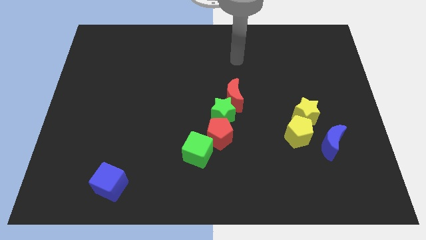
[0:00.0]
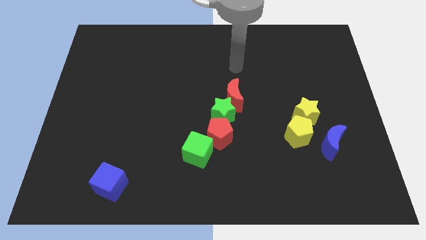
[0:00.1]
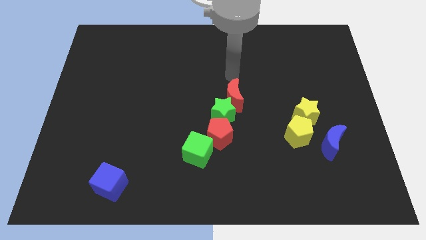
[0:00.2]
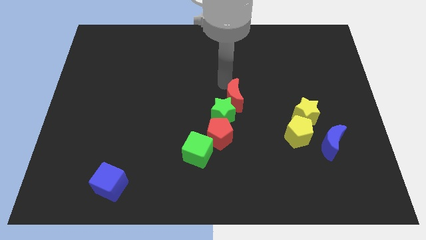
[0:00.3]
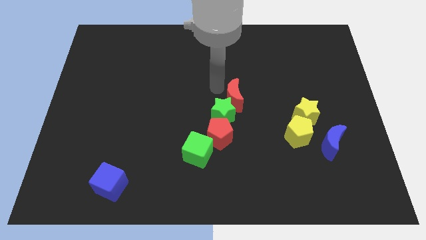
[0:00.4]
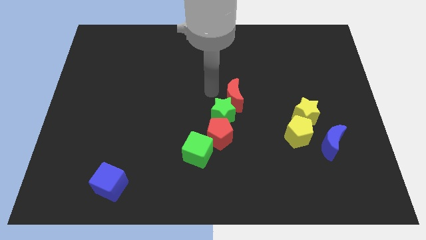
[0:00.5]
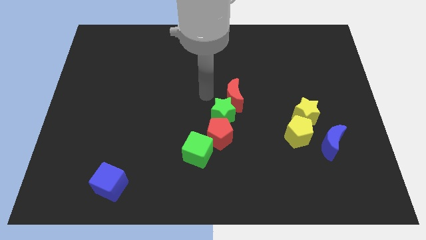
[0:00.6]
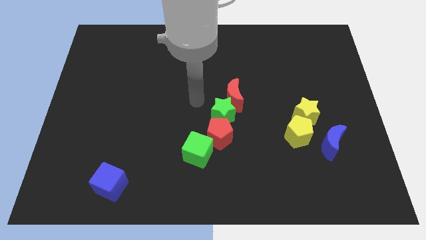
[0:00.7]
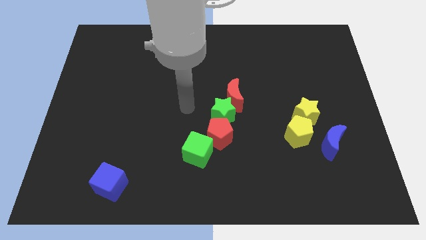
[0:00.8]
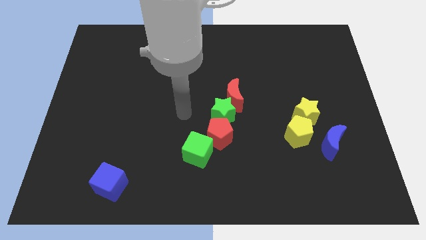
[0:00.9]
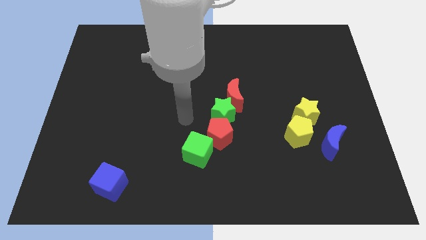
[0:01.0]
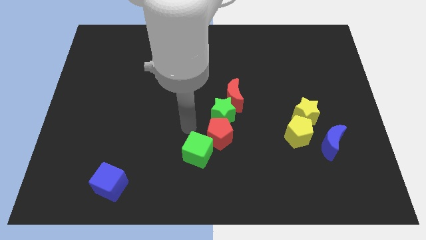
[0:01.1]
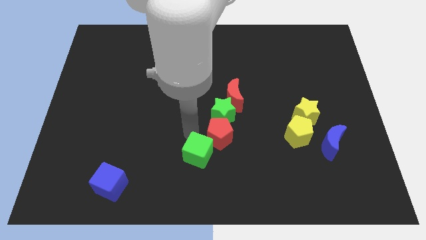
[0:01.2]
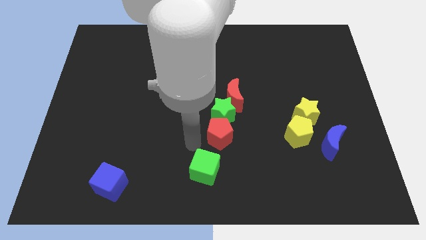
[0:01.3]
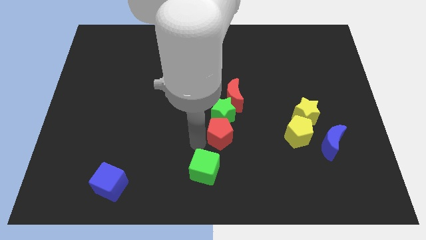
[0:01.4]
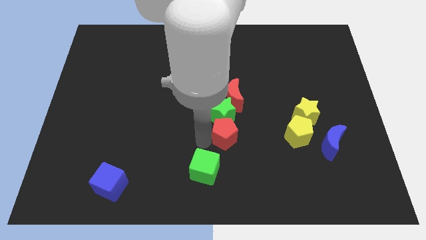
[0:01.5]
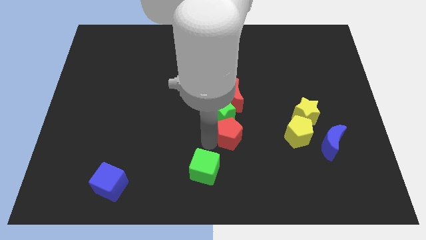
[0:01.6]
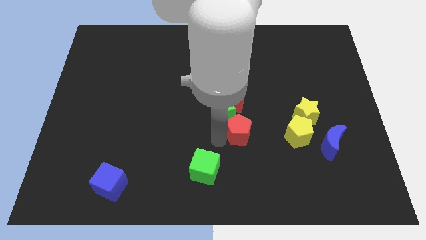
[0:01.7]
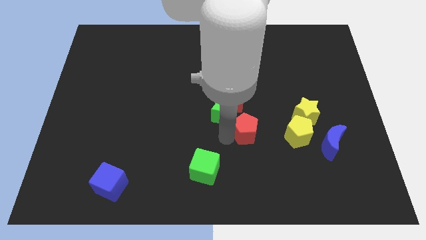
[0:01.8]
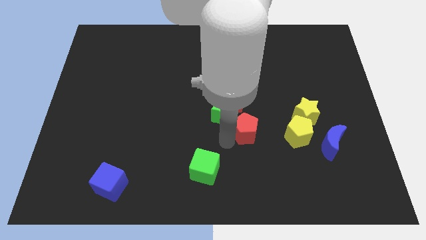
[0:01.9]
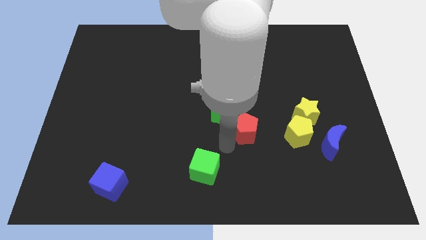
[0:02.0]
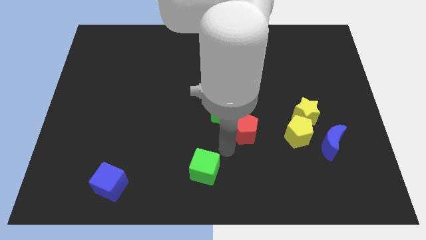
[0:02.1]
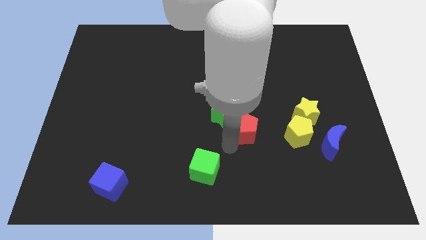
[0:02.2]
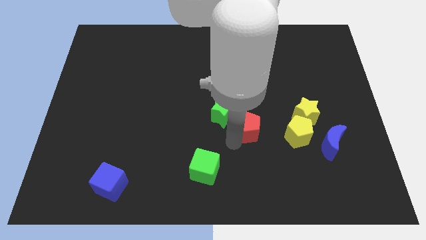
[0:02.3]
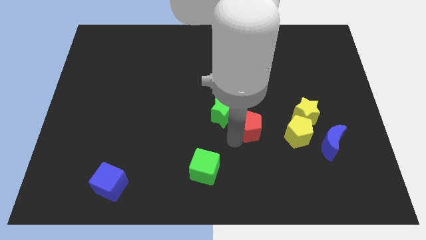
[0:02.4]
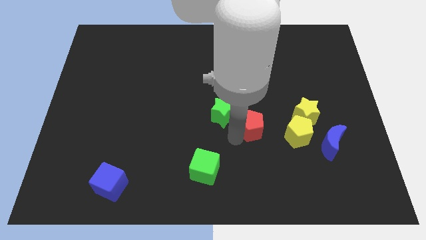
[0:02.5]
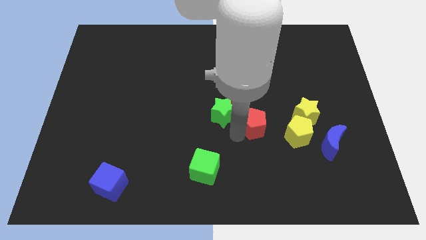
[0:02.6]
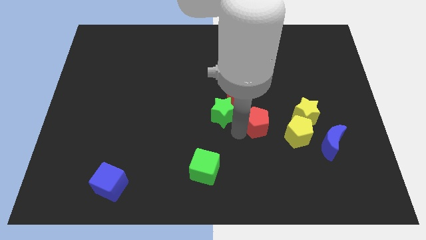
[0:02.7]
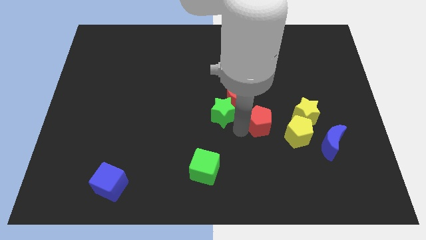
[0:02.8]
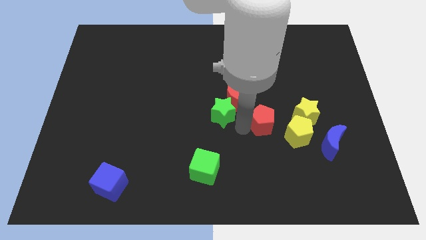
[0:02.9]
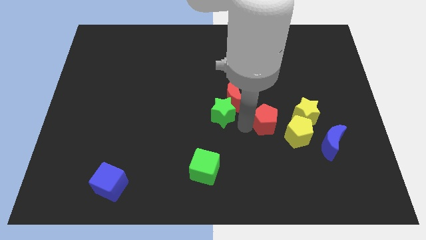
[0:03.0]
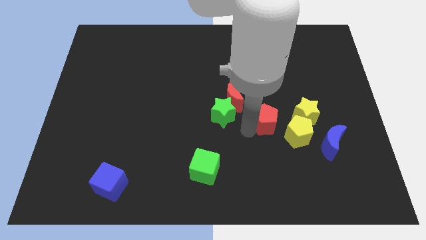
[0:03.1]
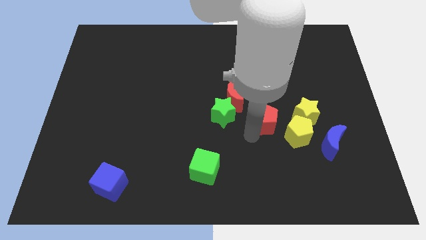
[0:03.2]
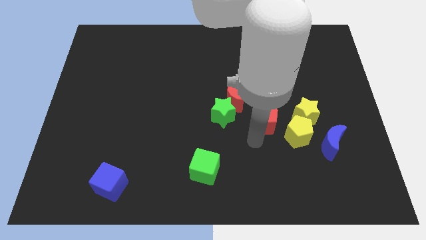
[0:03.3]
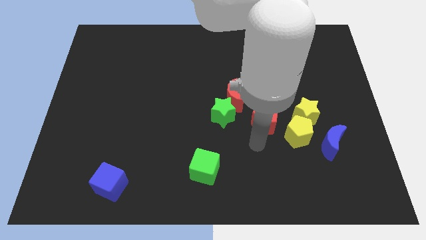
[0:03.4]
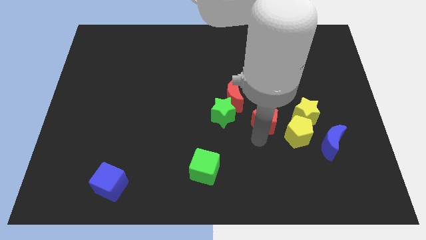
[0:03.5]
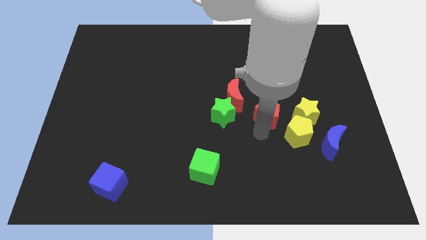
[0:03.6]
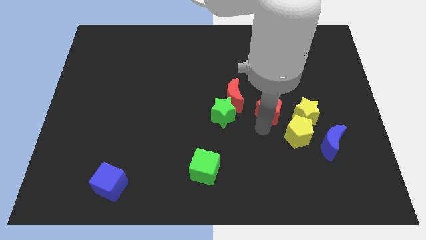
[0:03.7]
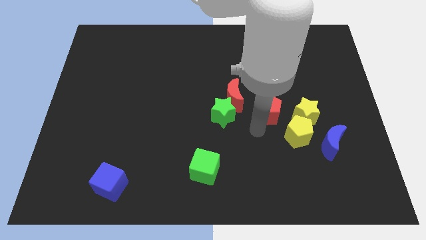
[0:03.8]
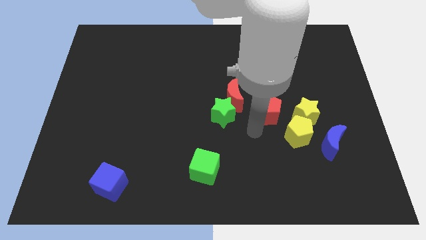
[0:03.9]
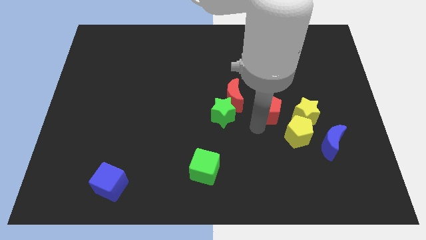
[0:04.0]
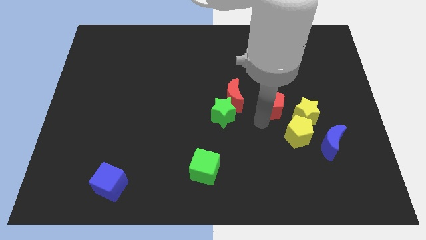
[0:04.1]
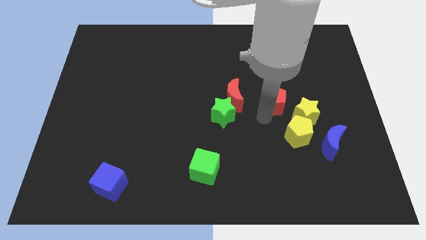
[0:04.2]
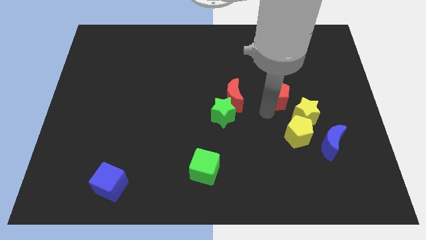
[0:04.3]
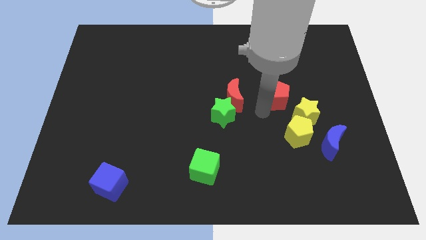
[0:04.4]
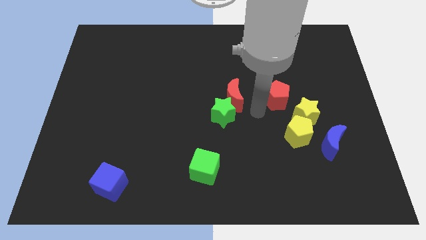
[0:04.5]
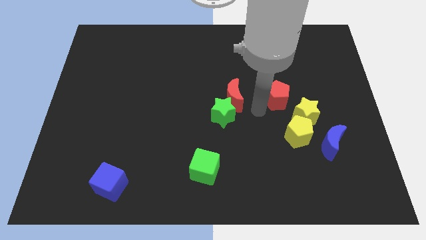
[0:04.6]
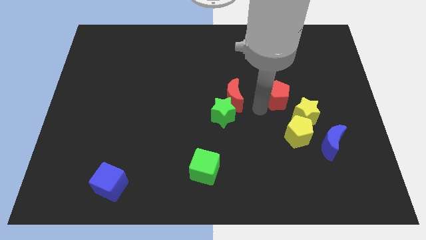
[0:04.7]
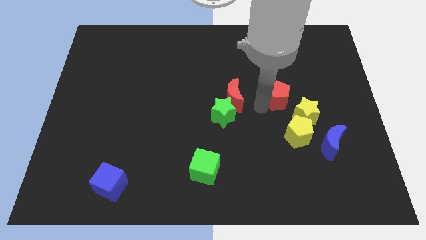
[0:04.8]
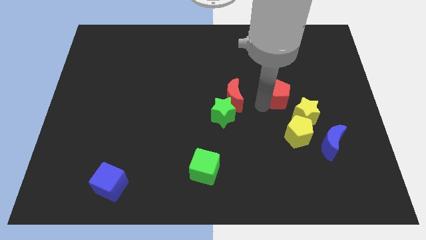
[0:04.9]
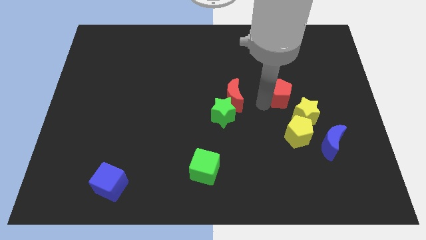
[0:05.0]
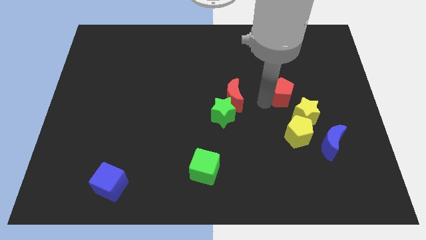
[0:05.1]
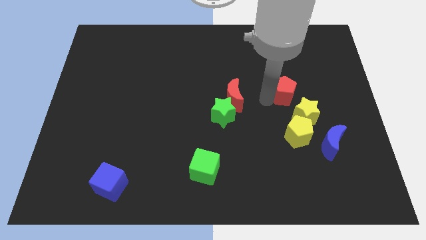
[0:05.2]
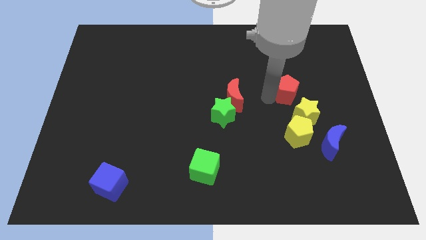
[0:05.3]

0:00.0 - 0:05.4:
slide the red pentagon upwards and right diagonally

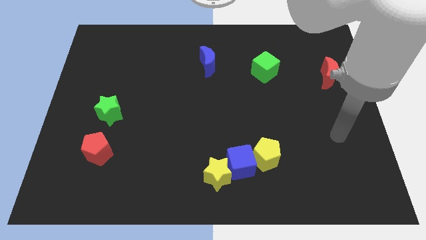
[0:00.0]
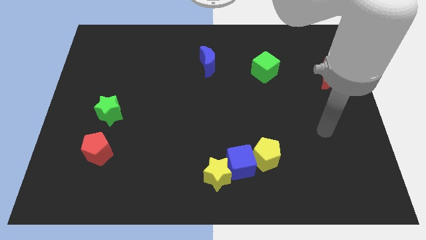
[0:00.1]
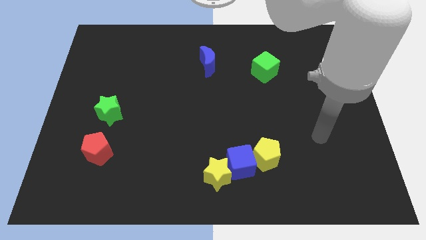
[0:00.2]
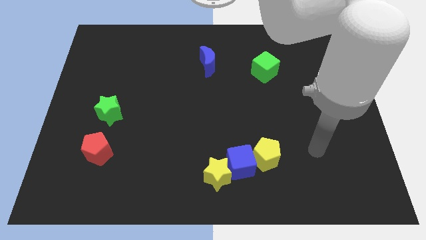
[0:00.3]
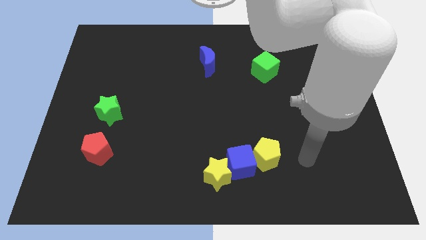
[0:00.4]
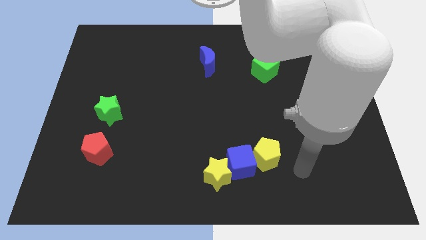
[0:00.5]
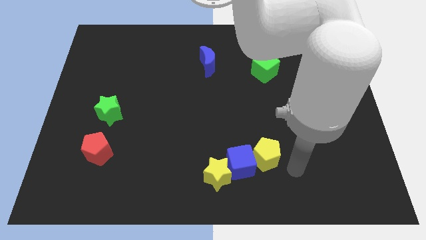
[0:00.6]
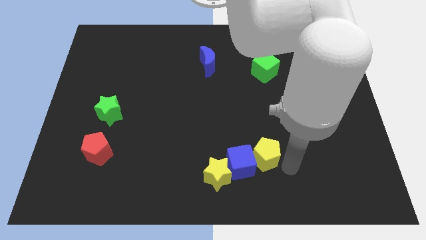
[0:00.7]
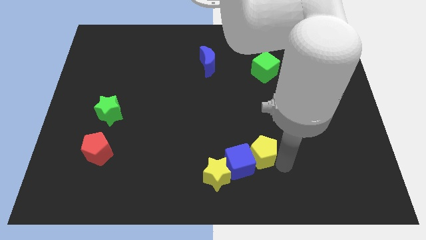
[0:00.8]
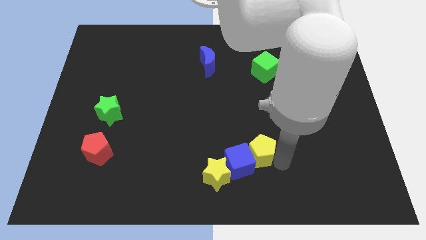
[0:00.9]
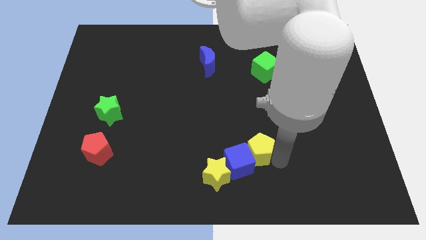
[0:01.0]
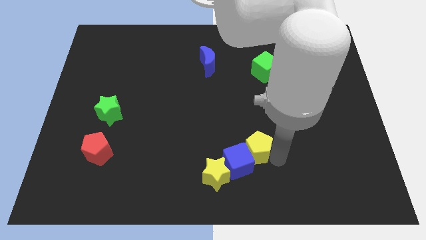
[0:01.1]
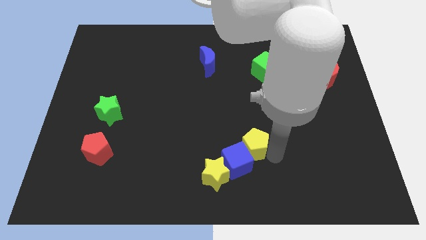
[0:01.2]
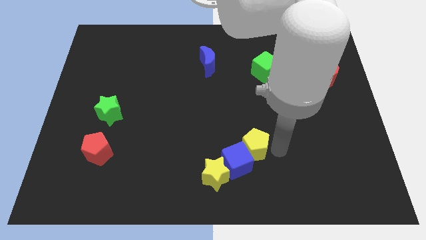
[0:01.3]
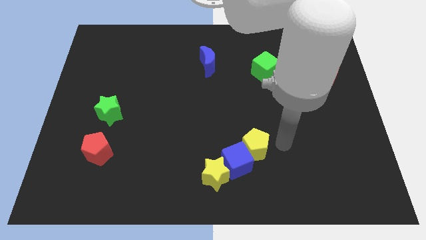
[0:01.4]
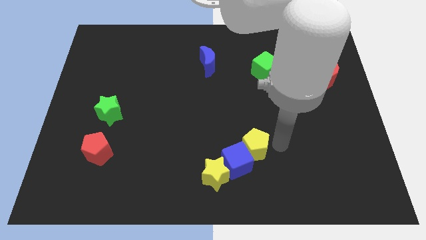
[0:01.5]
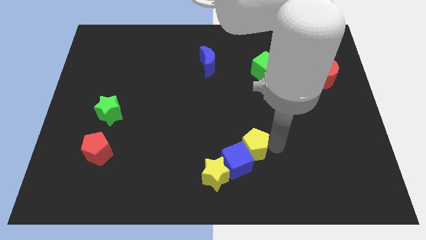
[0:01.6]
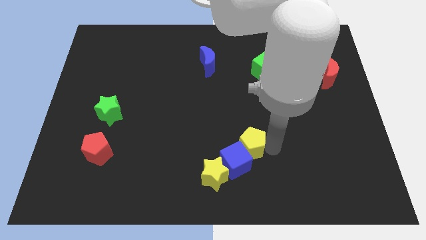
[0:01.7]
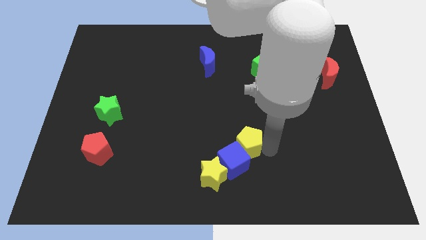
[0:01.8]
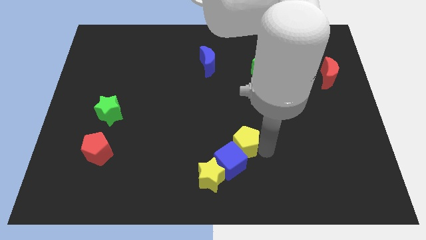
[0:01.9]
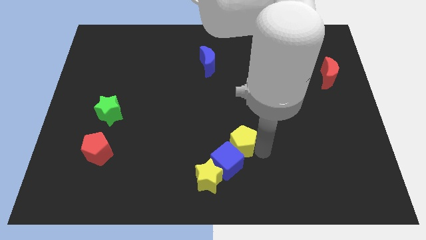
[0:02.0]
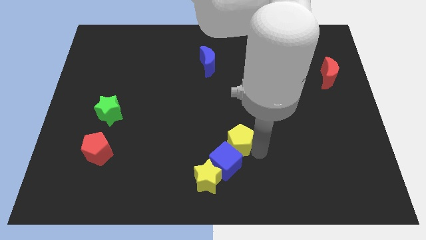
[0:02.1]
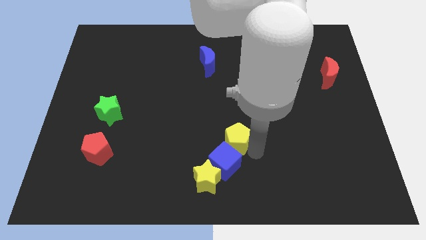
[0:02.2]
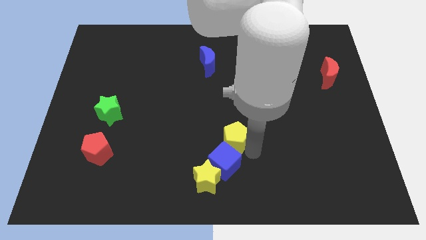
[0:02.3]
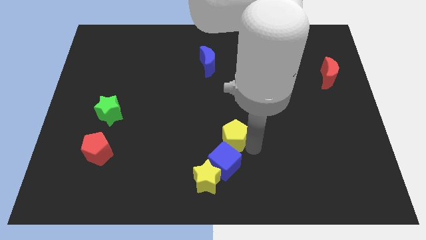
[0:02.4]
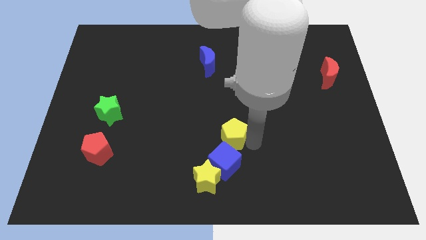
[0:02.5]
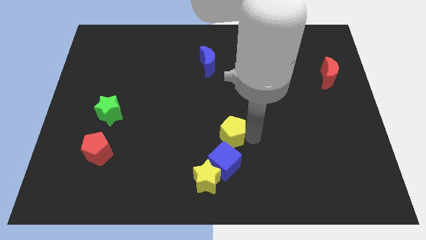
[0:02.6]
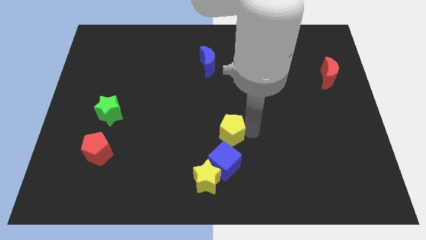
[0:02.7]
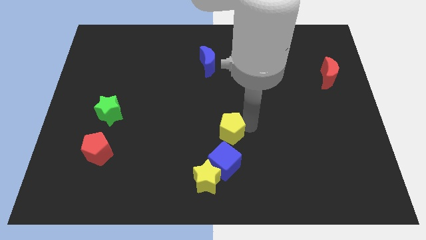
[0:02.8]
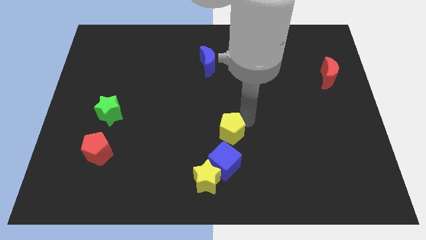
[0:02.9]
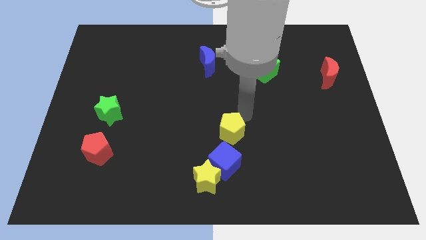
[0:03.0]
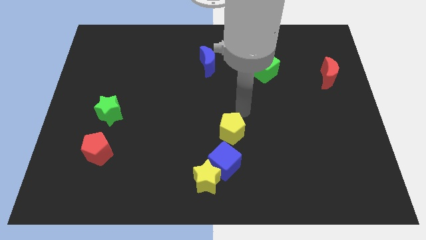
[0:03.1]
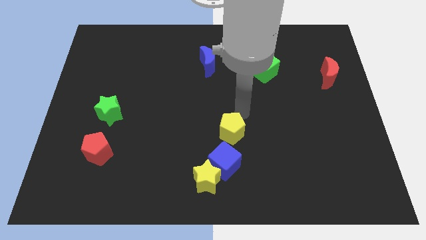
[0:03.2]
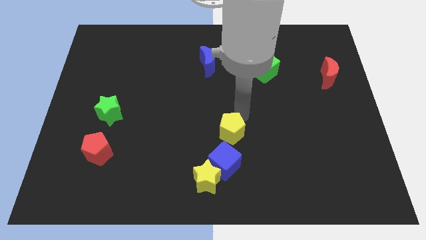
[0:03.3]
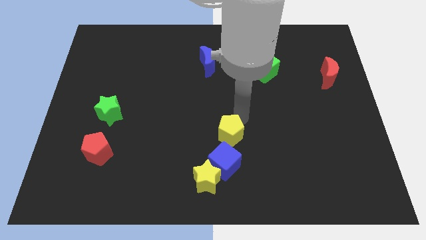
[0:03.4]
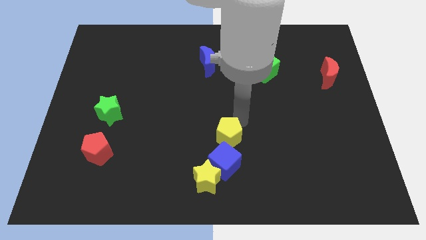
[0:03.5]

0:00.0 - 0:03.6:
move the yellow pentagon a bit left
